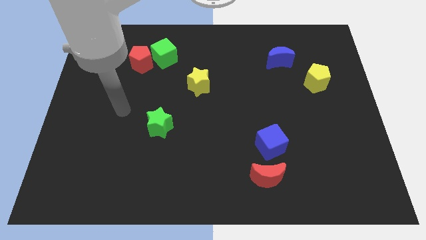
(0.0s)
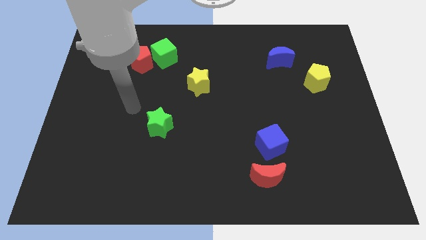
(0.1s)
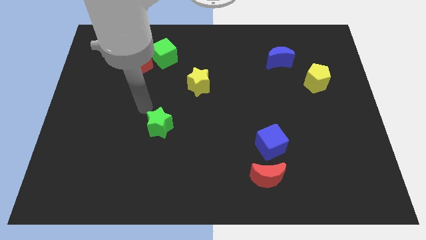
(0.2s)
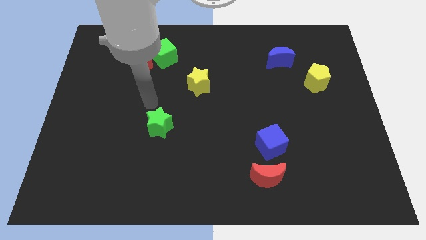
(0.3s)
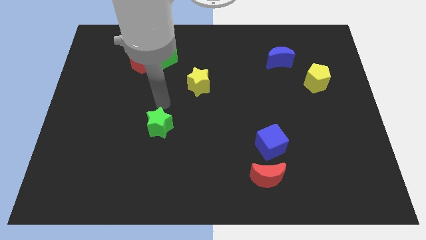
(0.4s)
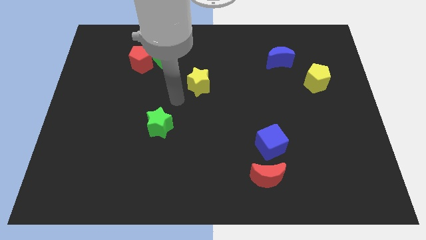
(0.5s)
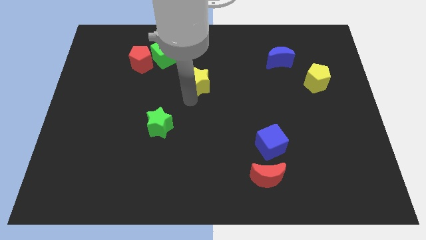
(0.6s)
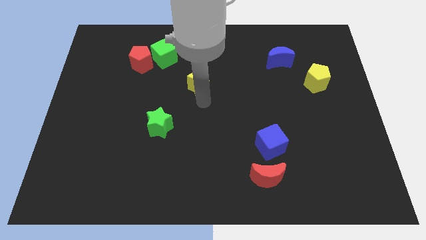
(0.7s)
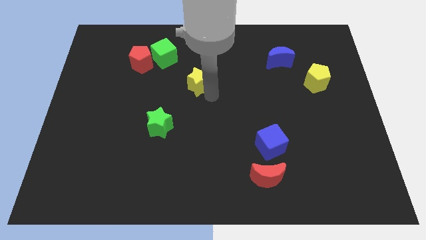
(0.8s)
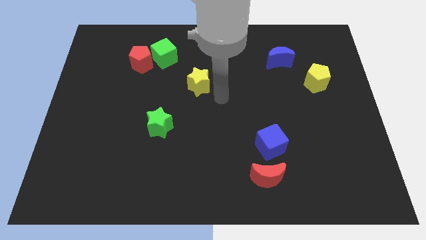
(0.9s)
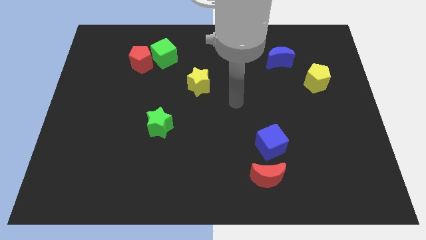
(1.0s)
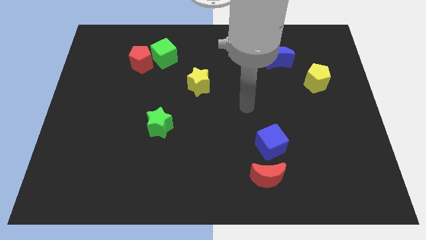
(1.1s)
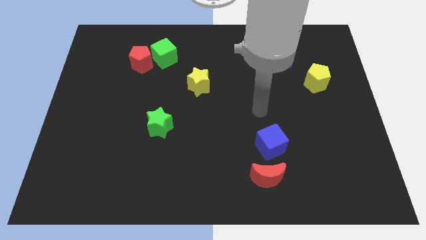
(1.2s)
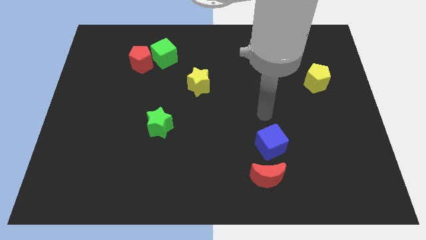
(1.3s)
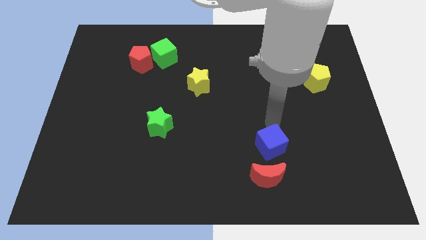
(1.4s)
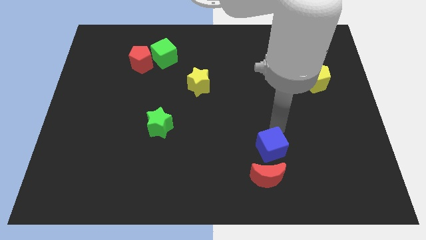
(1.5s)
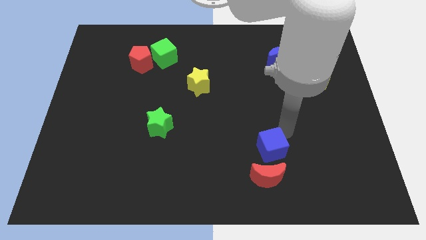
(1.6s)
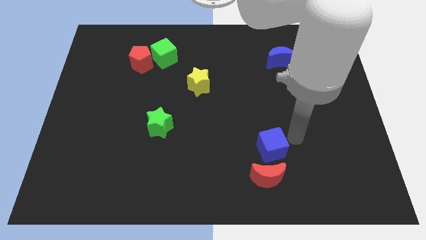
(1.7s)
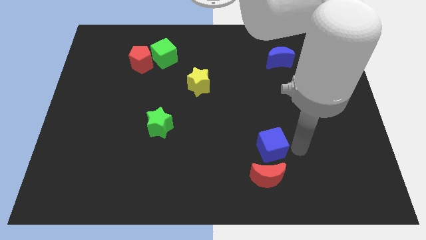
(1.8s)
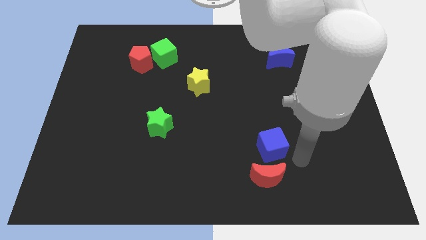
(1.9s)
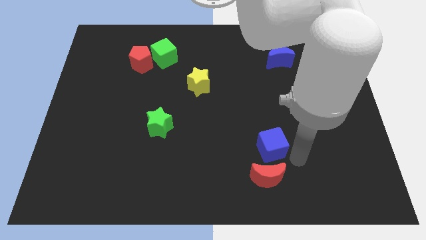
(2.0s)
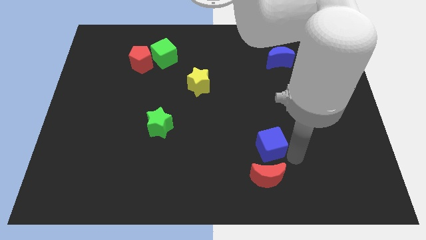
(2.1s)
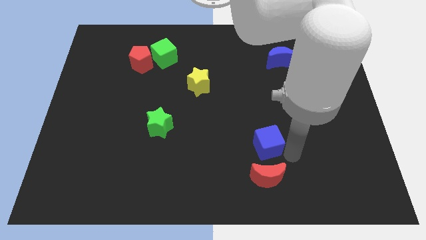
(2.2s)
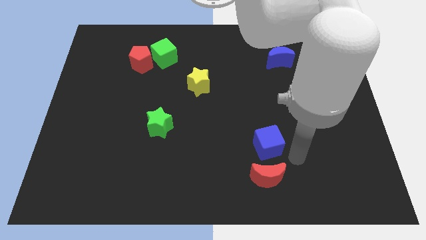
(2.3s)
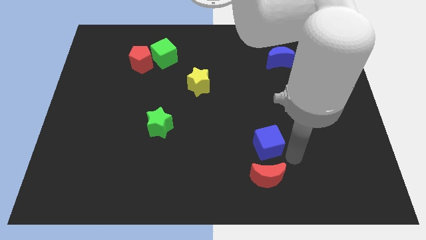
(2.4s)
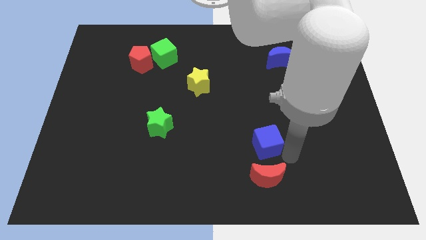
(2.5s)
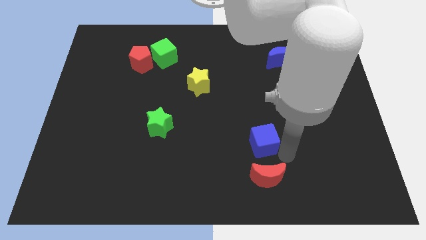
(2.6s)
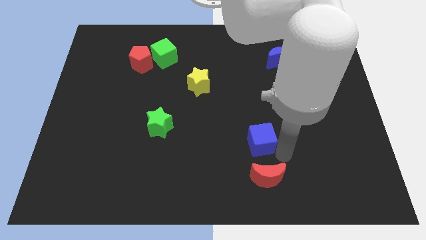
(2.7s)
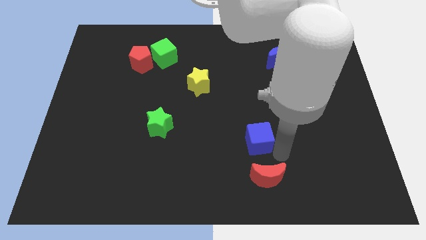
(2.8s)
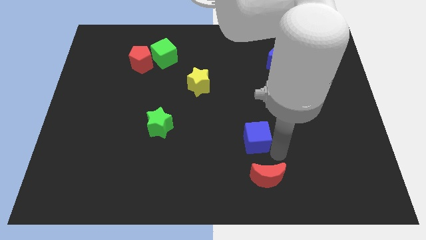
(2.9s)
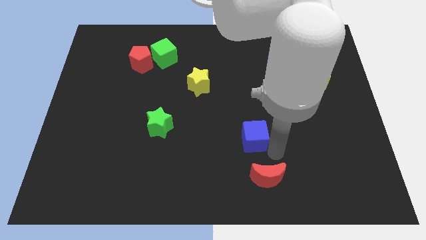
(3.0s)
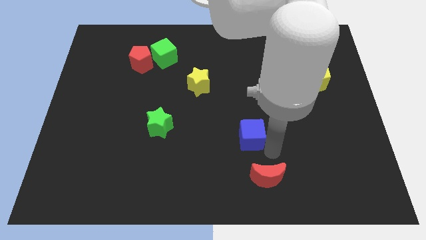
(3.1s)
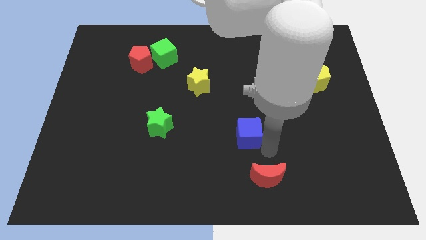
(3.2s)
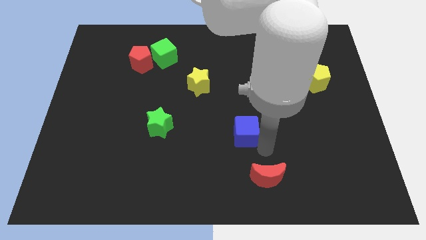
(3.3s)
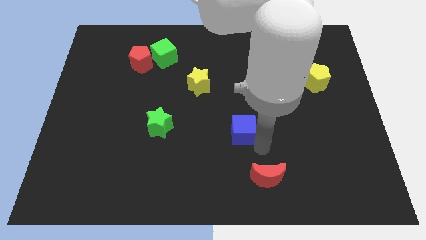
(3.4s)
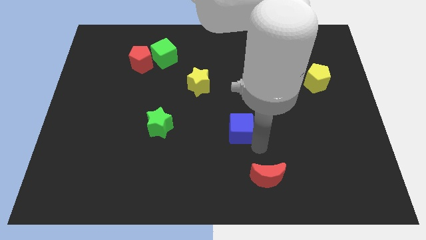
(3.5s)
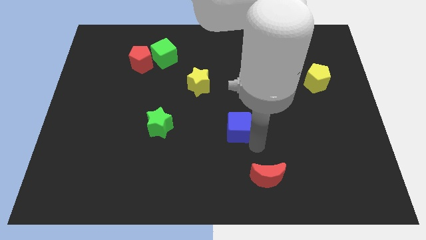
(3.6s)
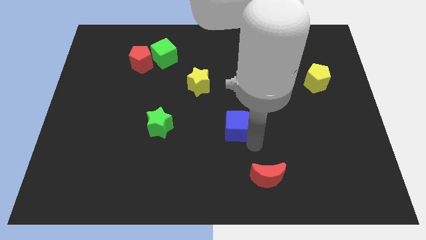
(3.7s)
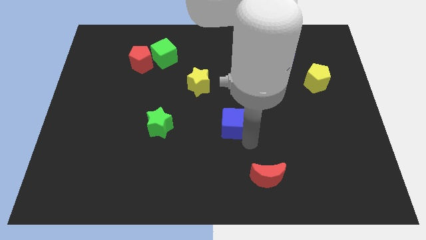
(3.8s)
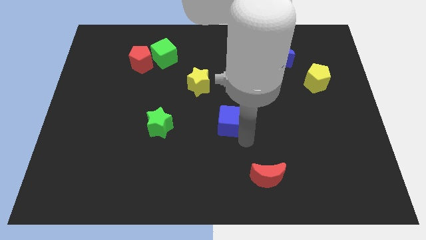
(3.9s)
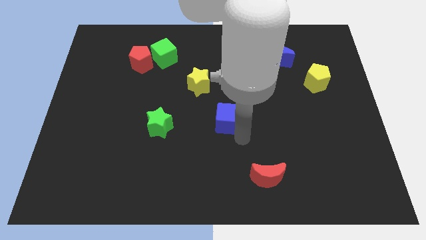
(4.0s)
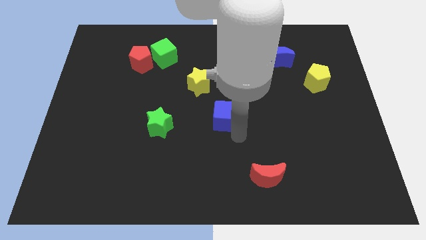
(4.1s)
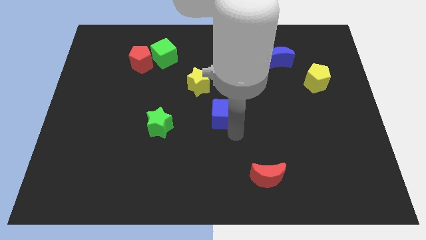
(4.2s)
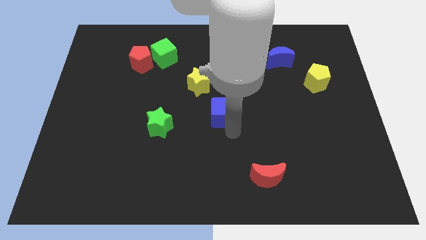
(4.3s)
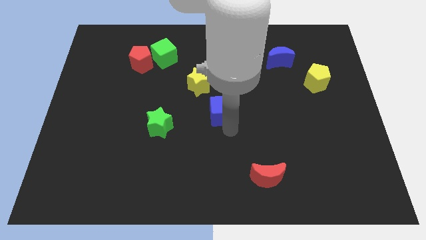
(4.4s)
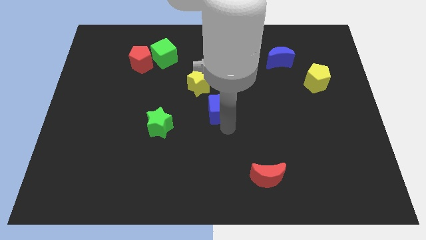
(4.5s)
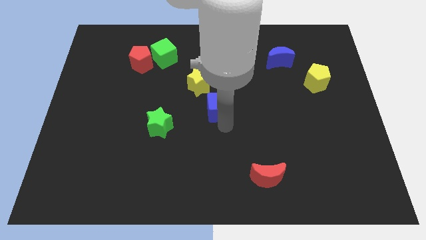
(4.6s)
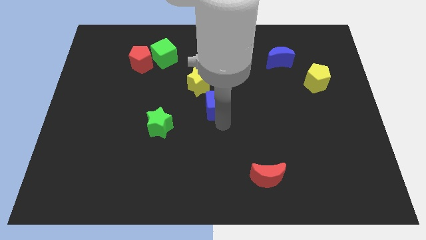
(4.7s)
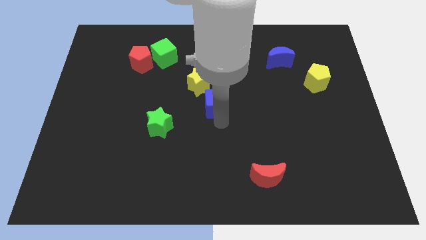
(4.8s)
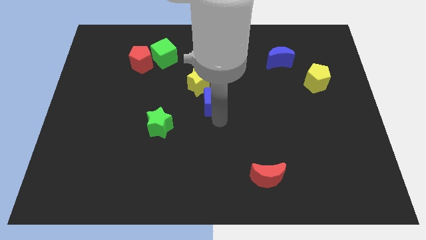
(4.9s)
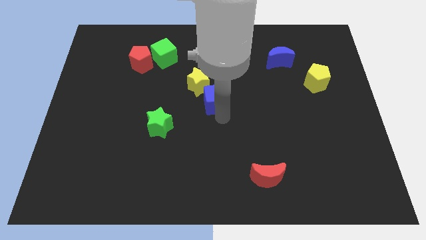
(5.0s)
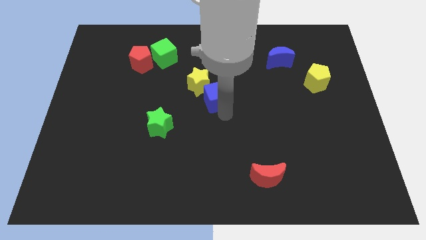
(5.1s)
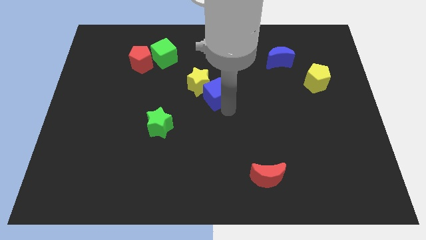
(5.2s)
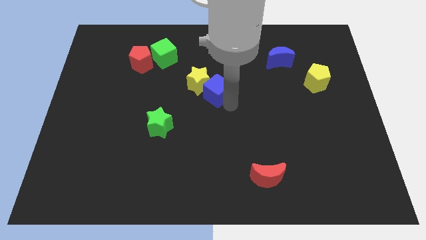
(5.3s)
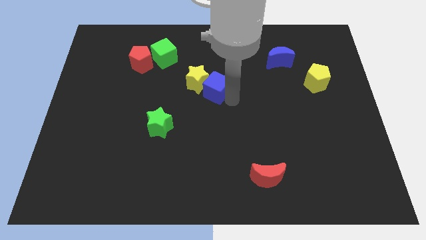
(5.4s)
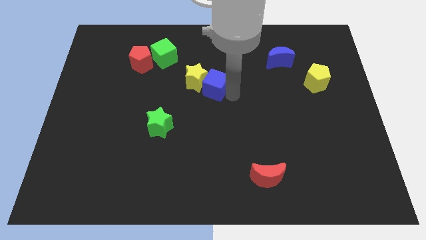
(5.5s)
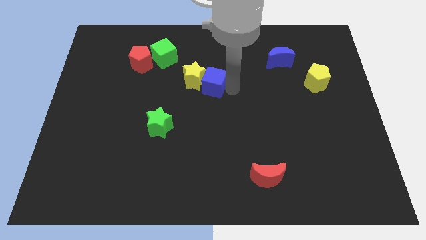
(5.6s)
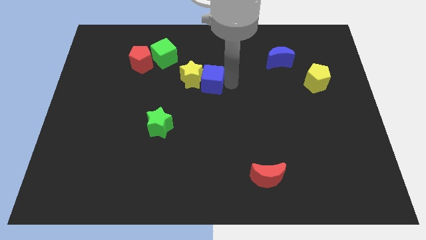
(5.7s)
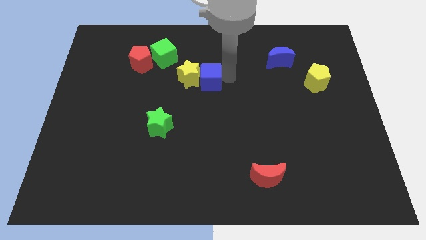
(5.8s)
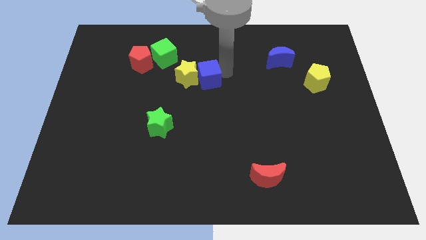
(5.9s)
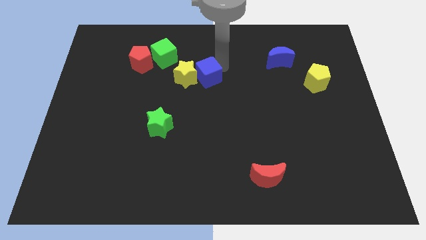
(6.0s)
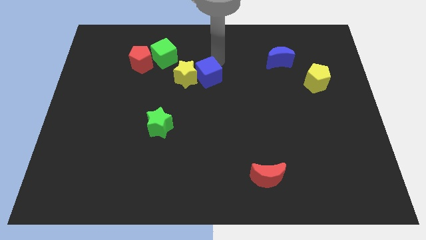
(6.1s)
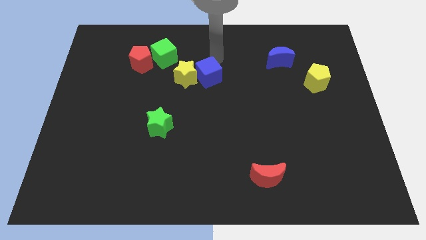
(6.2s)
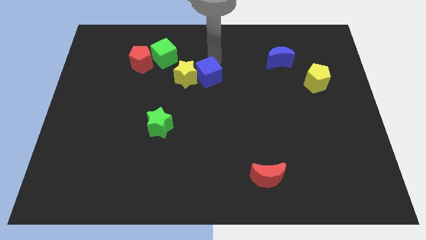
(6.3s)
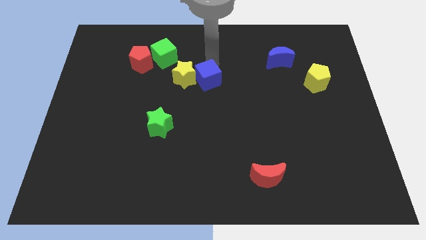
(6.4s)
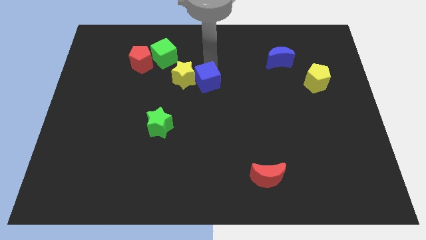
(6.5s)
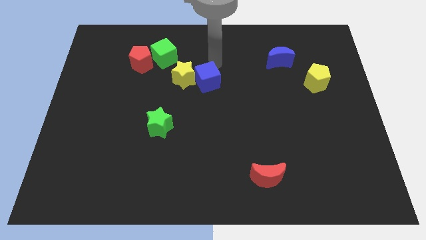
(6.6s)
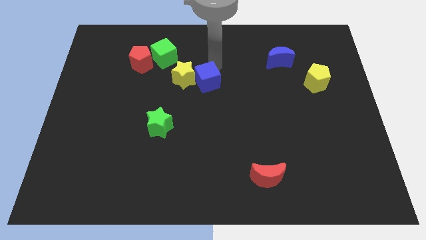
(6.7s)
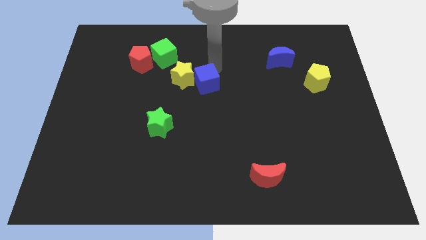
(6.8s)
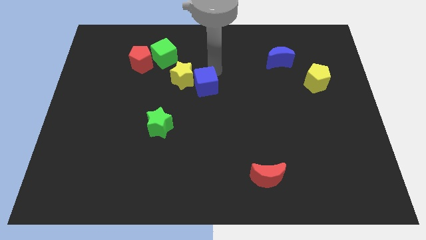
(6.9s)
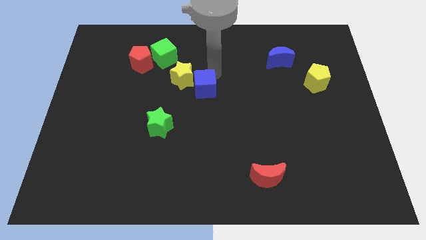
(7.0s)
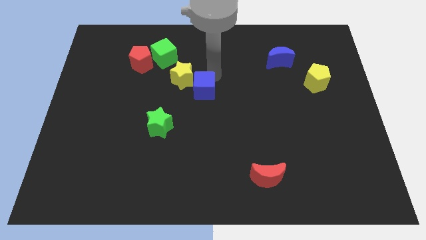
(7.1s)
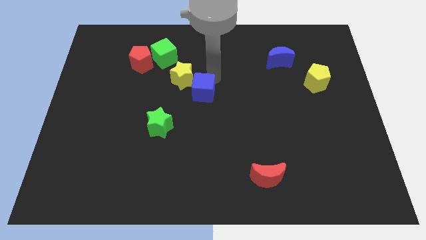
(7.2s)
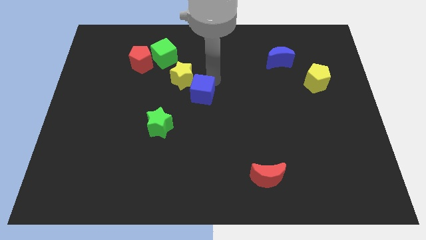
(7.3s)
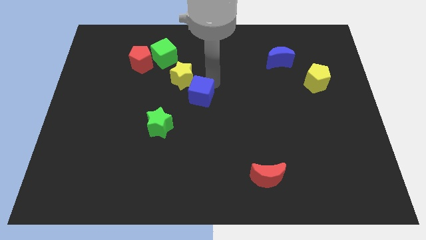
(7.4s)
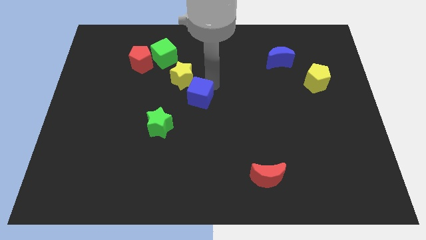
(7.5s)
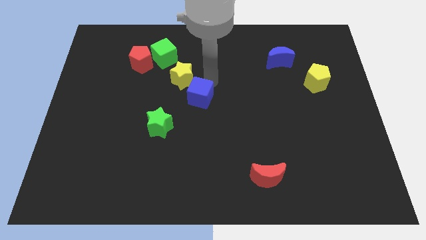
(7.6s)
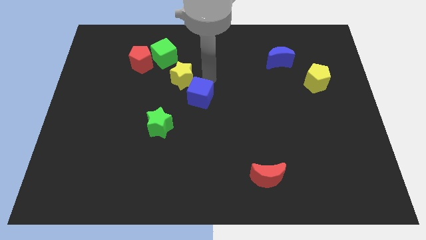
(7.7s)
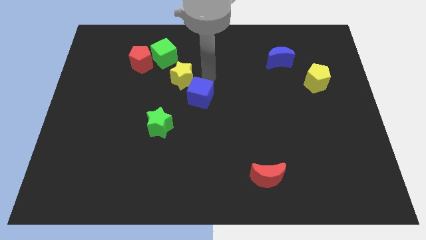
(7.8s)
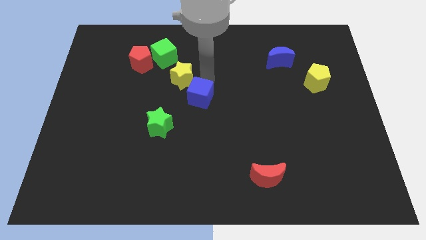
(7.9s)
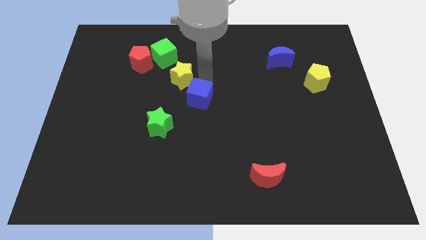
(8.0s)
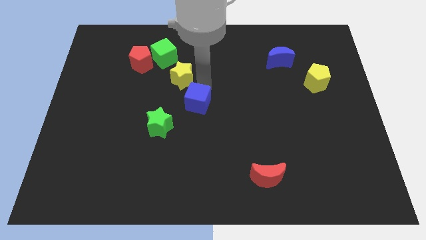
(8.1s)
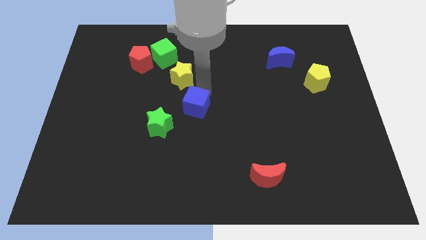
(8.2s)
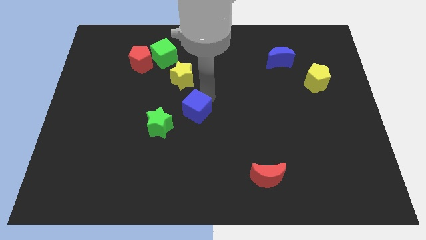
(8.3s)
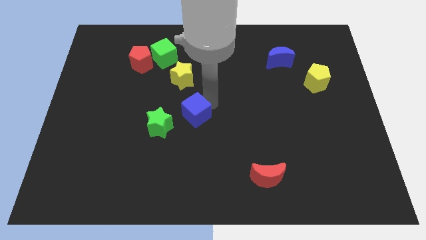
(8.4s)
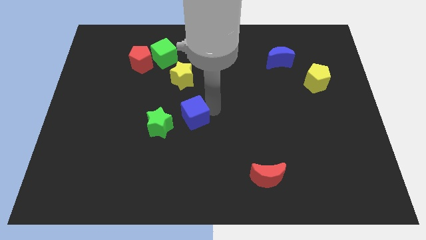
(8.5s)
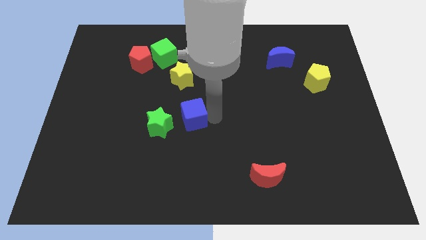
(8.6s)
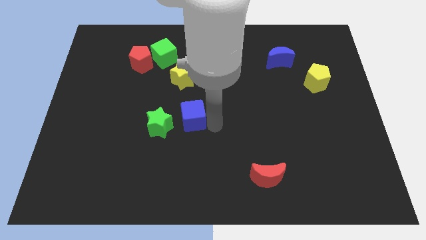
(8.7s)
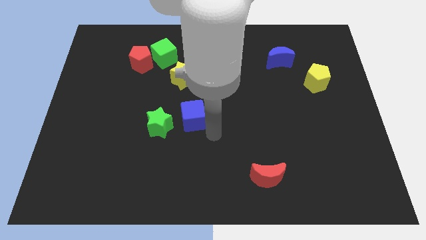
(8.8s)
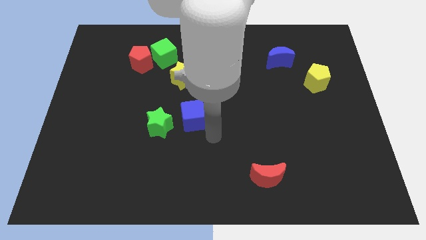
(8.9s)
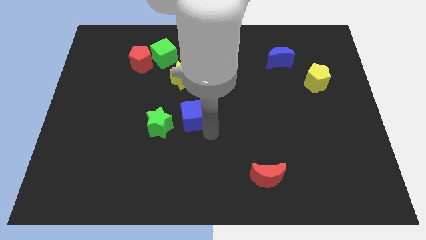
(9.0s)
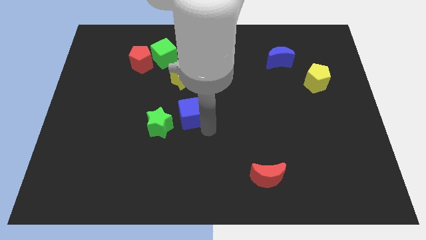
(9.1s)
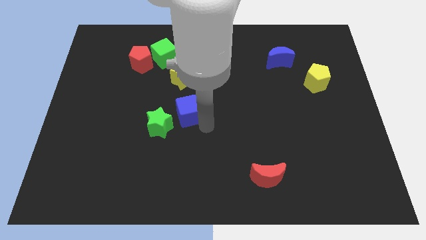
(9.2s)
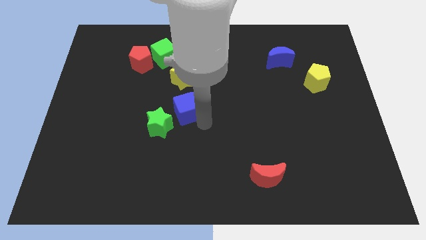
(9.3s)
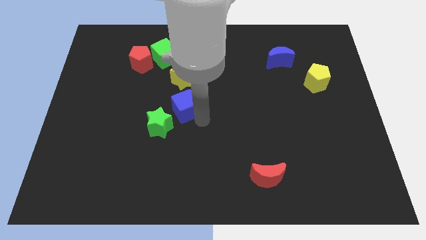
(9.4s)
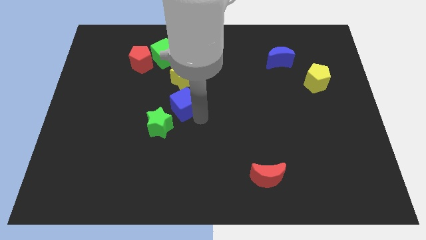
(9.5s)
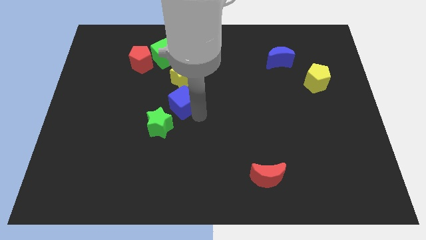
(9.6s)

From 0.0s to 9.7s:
put the blue cube to the top side of the green star
